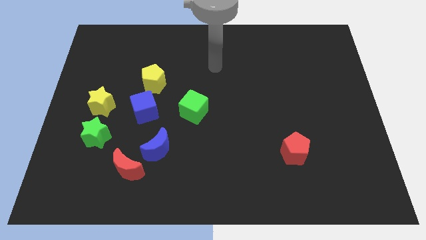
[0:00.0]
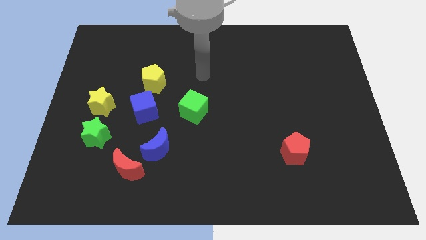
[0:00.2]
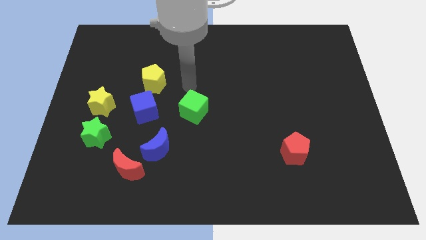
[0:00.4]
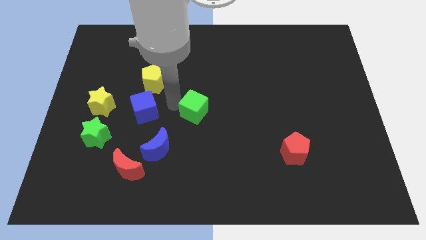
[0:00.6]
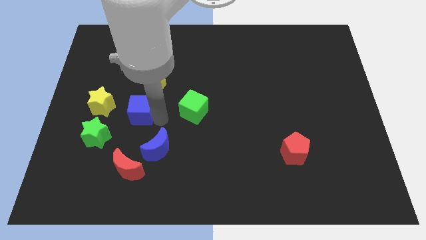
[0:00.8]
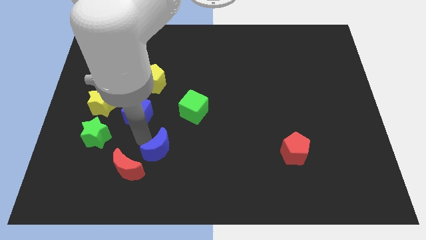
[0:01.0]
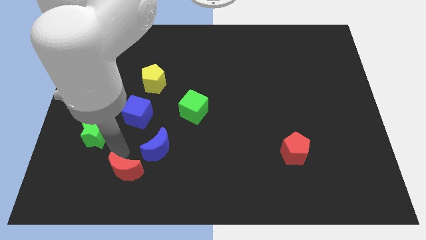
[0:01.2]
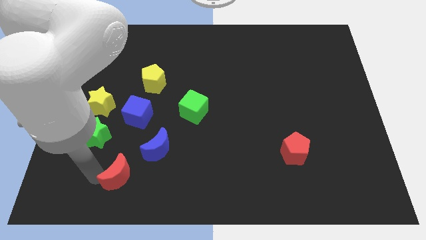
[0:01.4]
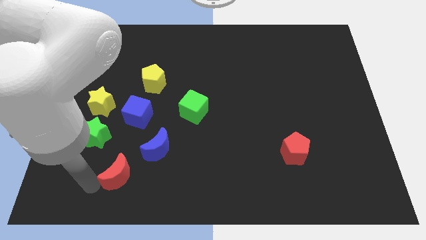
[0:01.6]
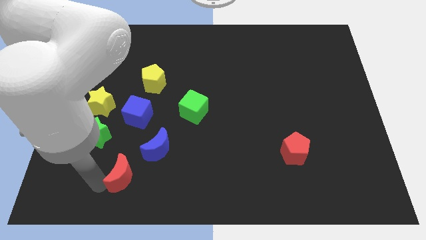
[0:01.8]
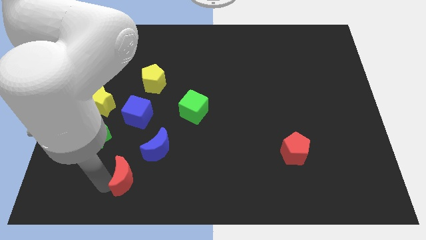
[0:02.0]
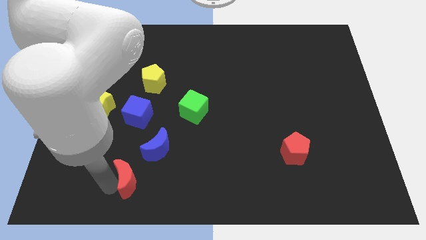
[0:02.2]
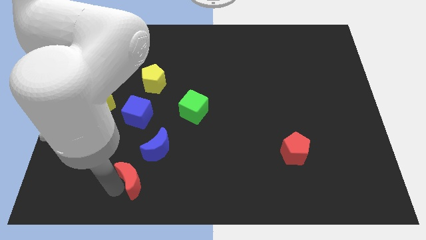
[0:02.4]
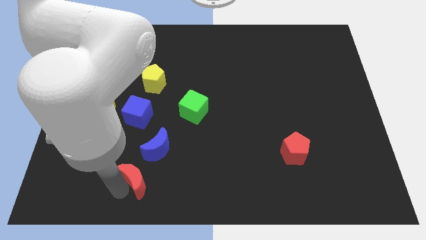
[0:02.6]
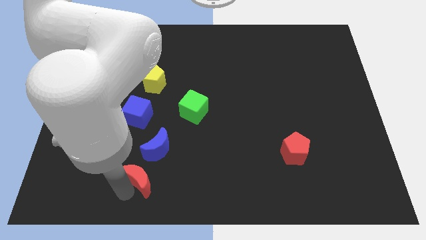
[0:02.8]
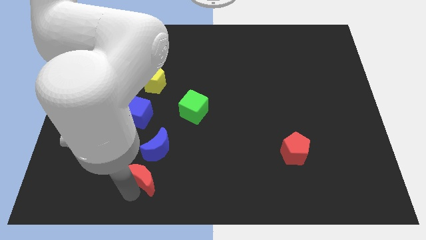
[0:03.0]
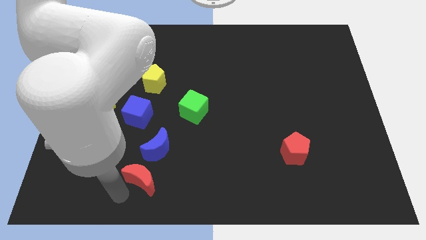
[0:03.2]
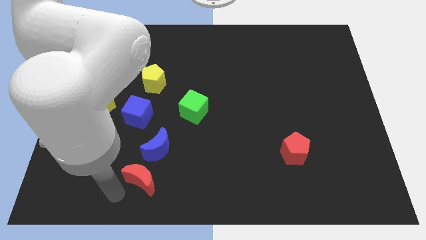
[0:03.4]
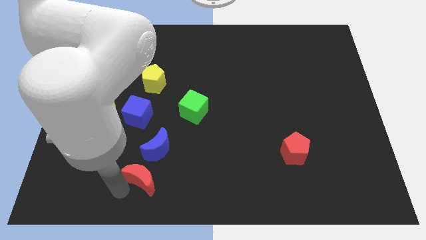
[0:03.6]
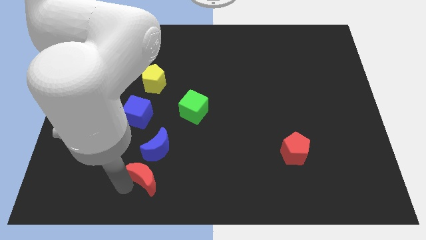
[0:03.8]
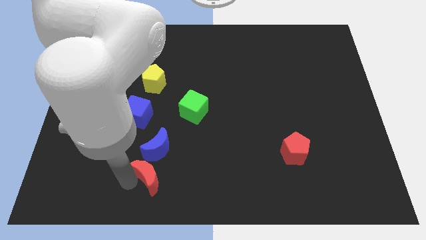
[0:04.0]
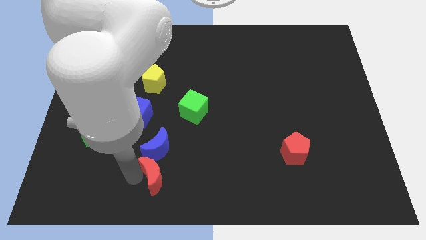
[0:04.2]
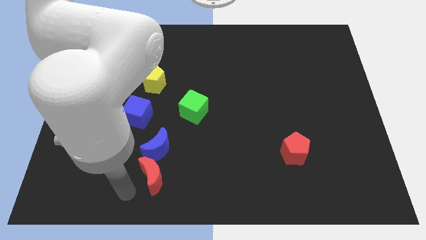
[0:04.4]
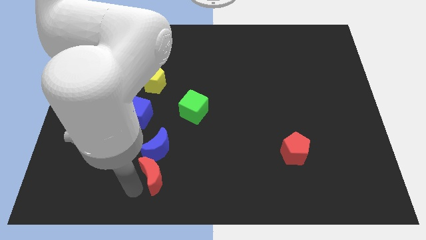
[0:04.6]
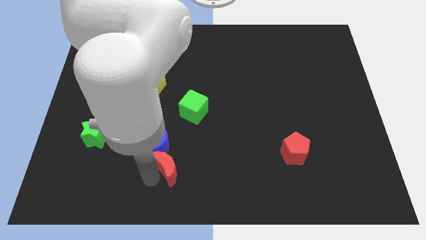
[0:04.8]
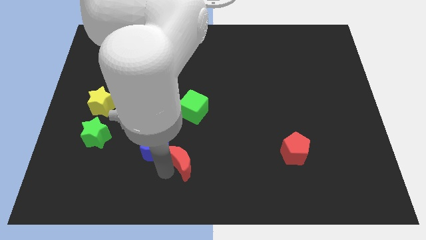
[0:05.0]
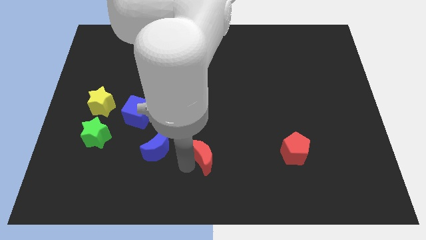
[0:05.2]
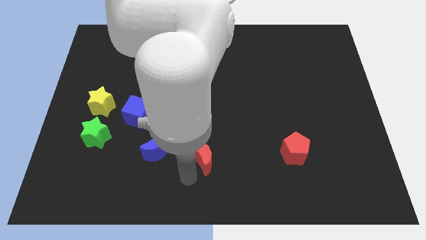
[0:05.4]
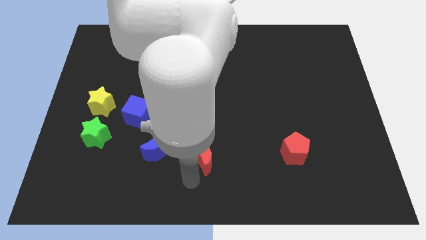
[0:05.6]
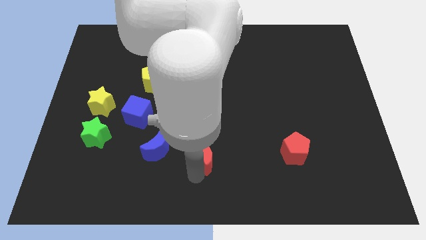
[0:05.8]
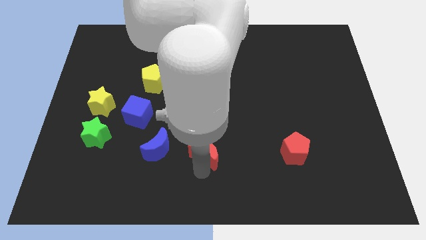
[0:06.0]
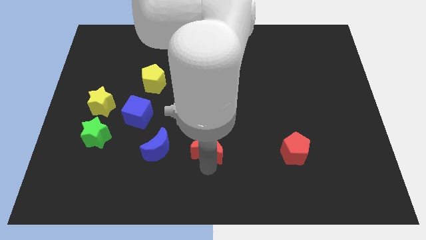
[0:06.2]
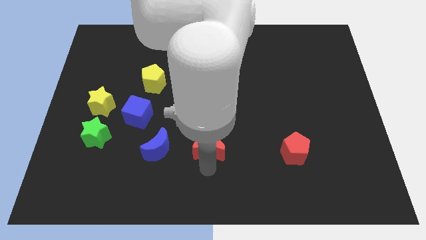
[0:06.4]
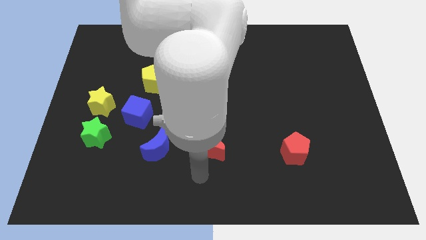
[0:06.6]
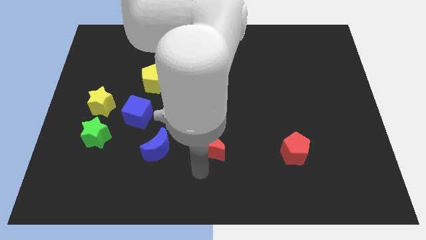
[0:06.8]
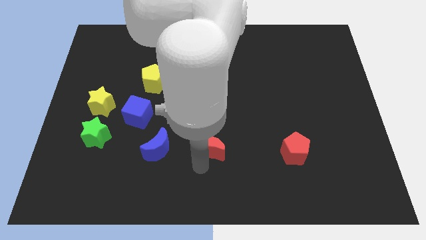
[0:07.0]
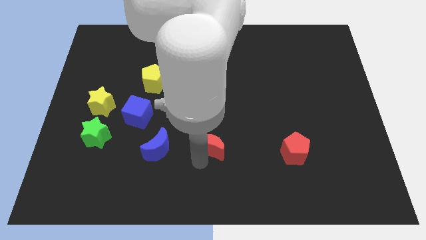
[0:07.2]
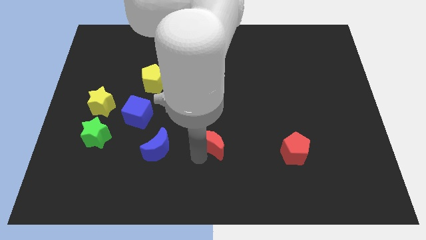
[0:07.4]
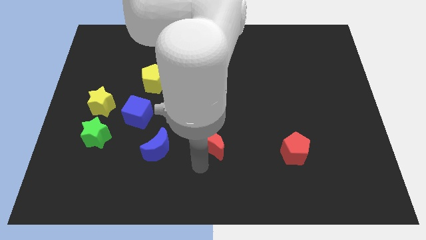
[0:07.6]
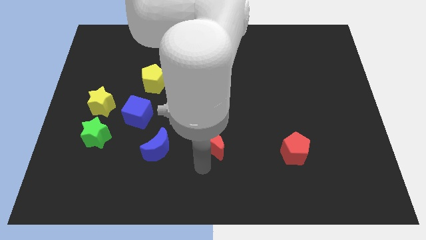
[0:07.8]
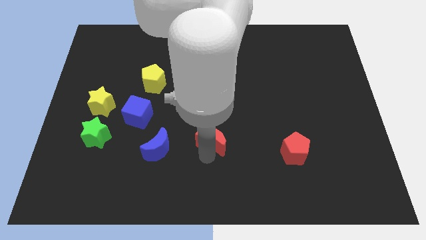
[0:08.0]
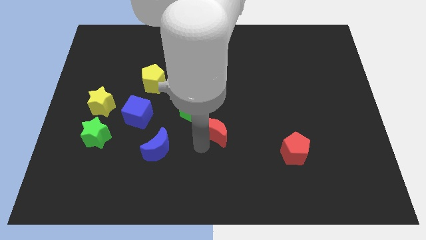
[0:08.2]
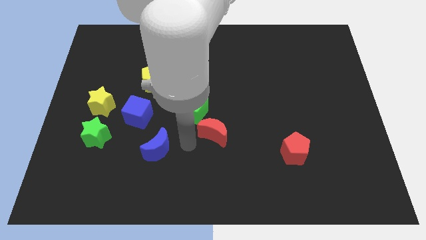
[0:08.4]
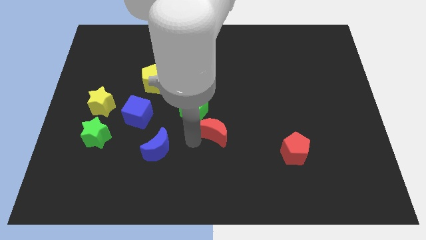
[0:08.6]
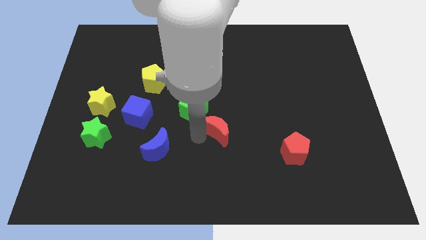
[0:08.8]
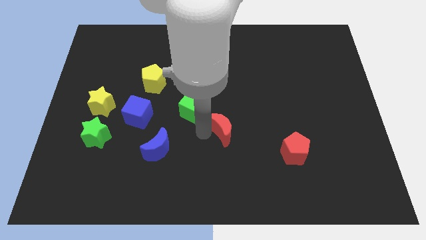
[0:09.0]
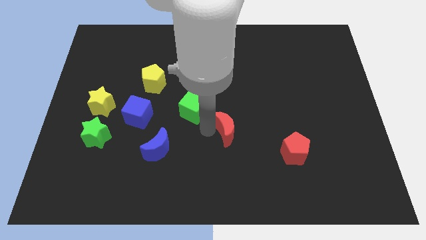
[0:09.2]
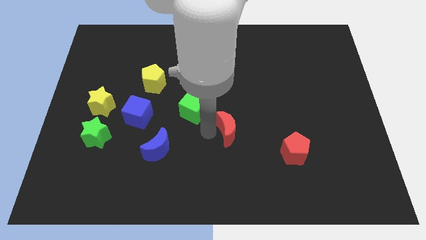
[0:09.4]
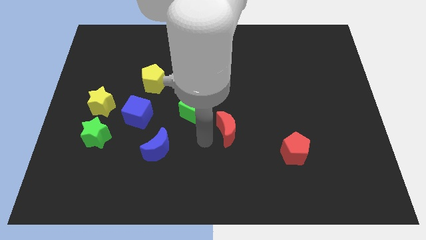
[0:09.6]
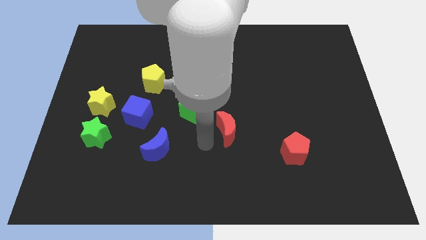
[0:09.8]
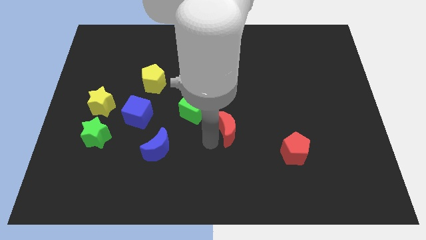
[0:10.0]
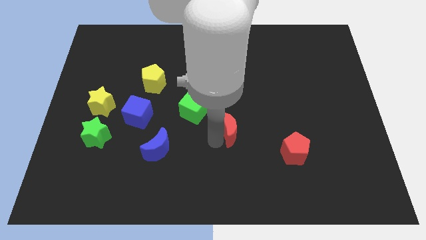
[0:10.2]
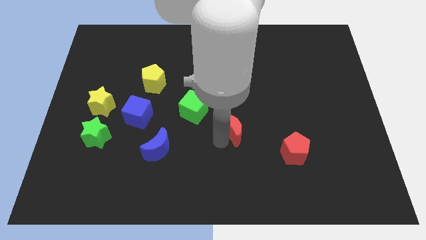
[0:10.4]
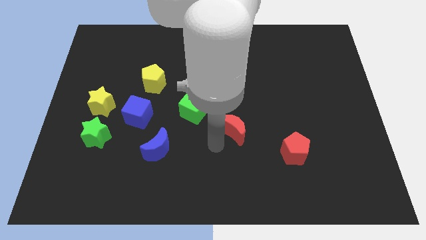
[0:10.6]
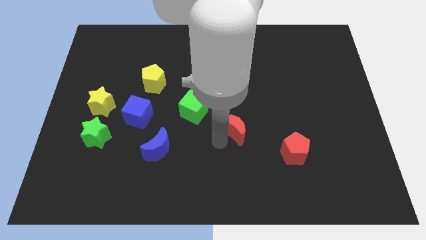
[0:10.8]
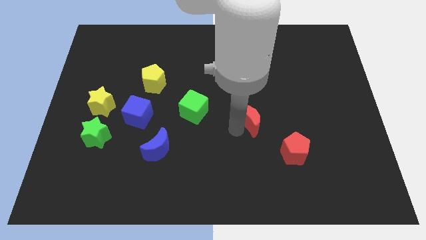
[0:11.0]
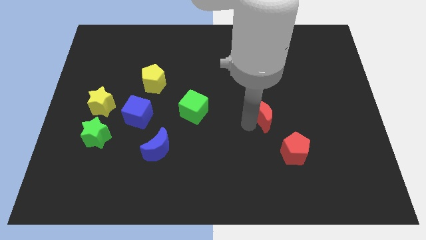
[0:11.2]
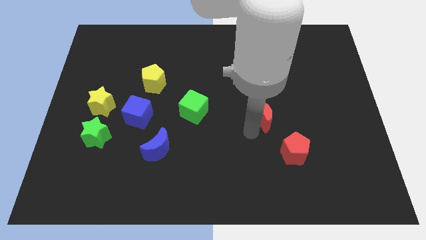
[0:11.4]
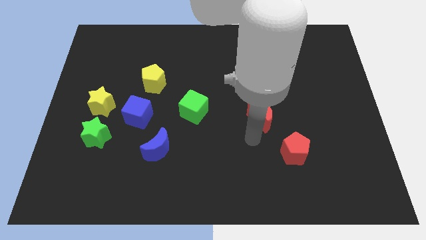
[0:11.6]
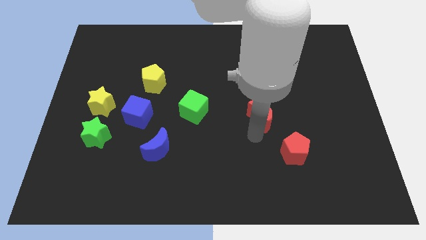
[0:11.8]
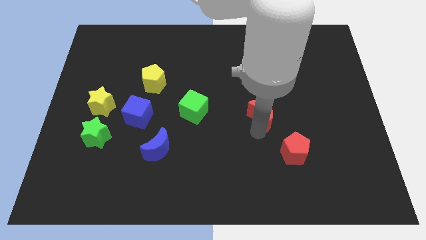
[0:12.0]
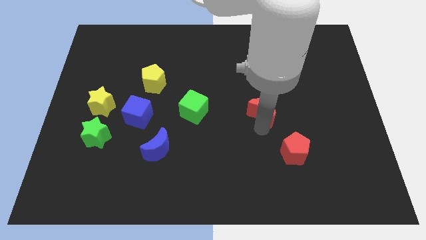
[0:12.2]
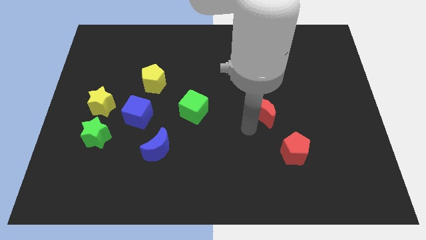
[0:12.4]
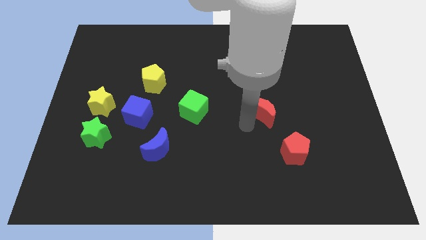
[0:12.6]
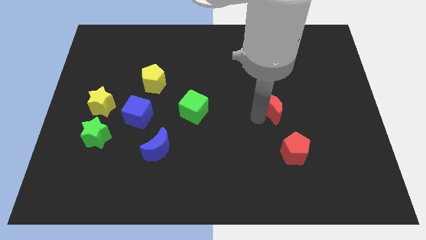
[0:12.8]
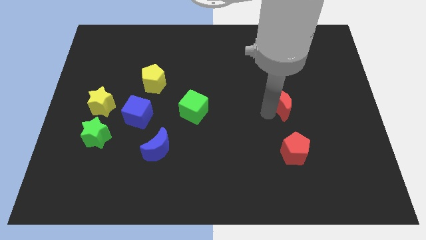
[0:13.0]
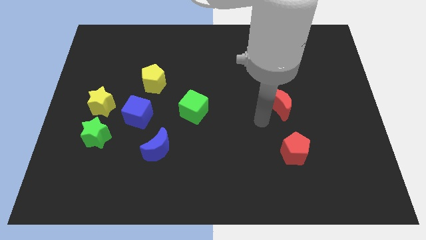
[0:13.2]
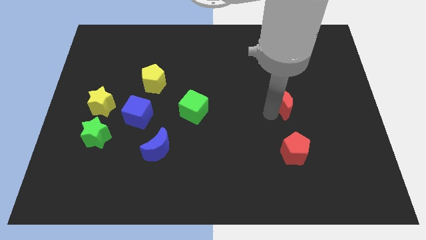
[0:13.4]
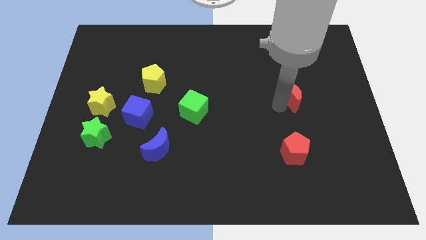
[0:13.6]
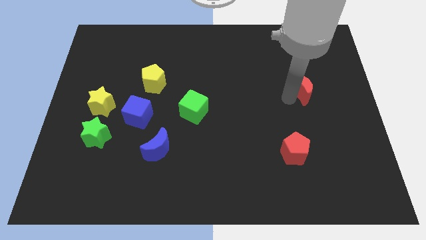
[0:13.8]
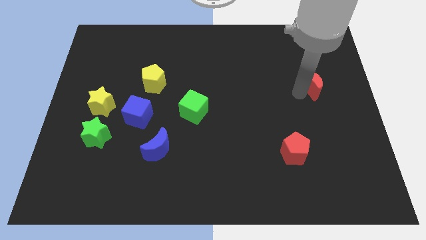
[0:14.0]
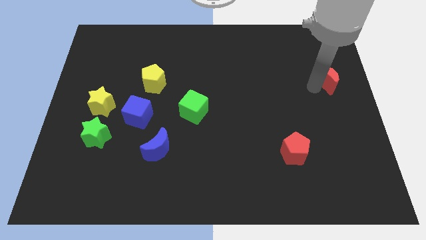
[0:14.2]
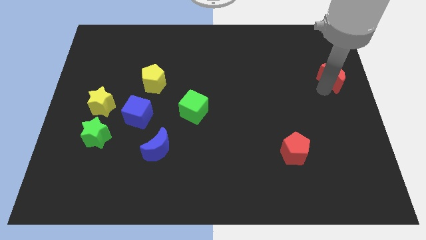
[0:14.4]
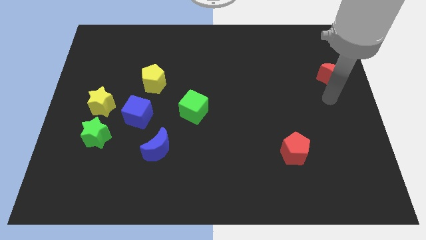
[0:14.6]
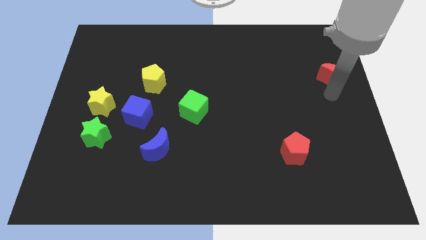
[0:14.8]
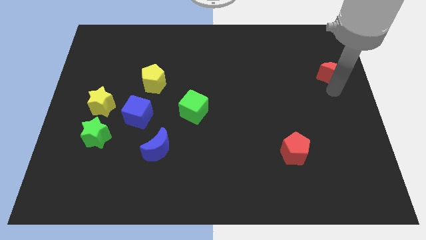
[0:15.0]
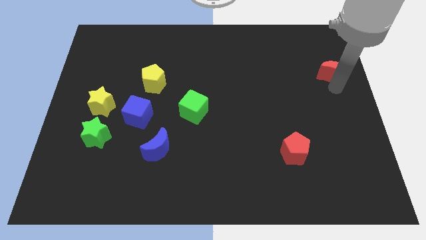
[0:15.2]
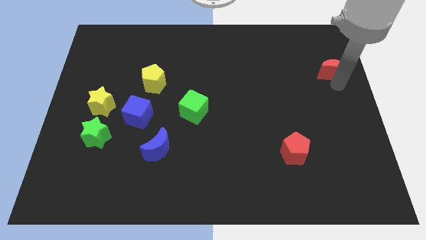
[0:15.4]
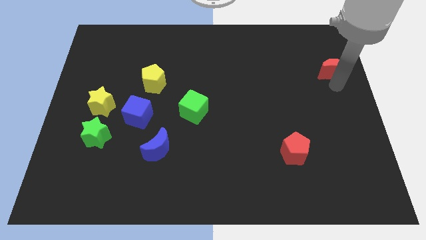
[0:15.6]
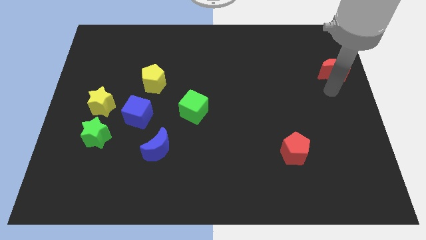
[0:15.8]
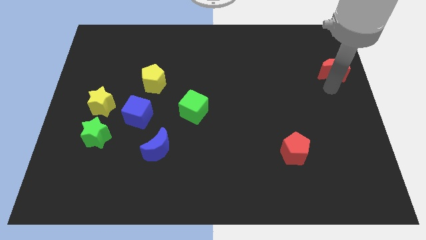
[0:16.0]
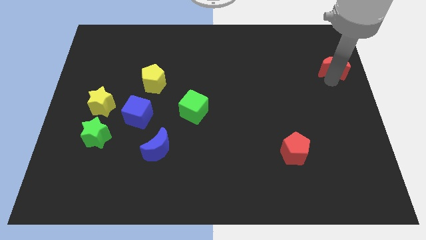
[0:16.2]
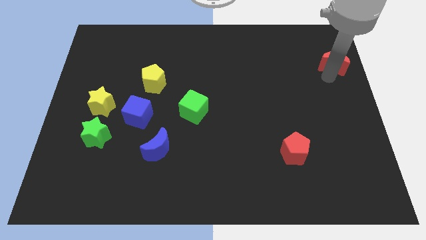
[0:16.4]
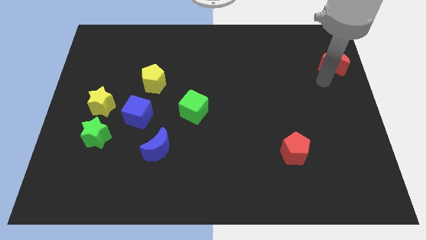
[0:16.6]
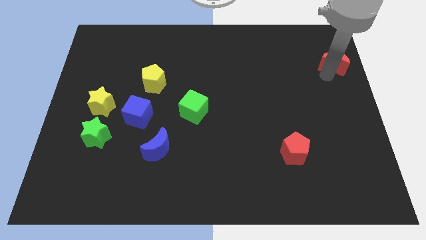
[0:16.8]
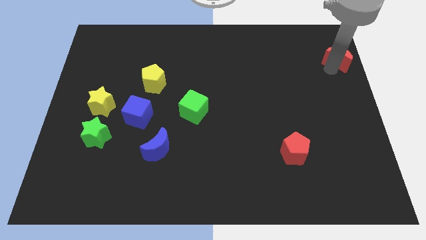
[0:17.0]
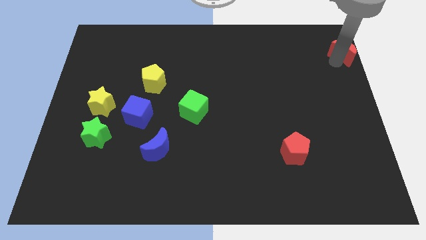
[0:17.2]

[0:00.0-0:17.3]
push the red moon to the upper right corner
